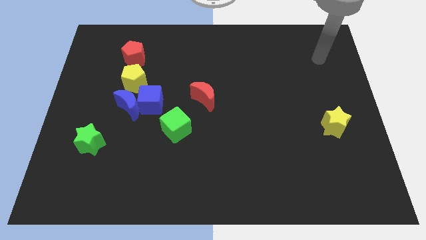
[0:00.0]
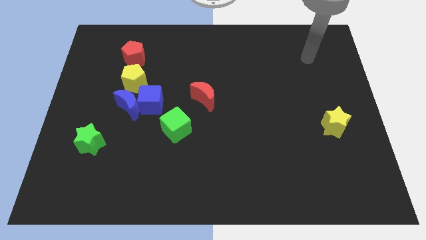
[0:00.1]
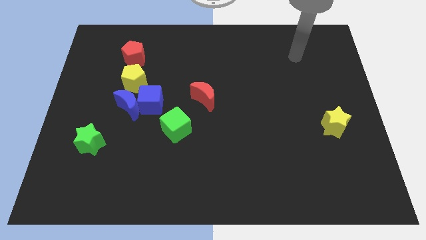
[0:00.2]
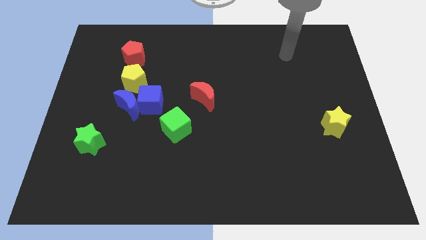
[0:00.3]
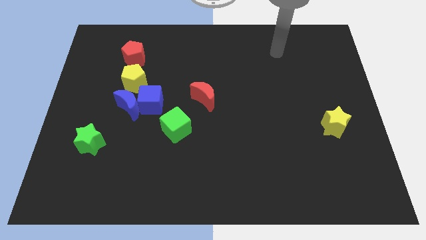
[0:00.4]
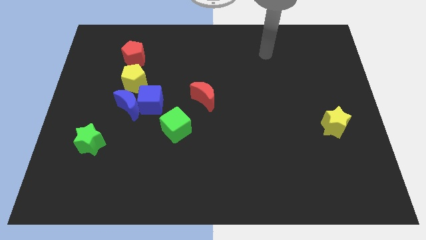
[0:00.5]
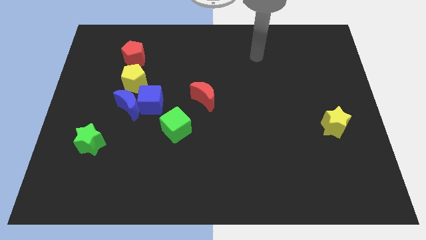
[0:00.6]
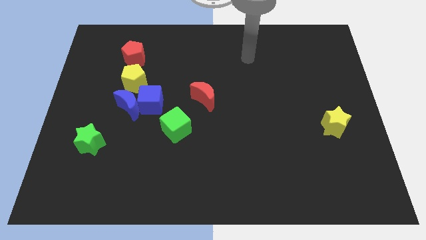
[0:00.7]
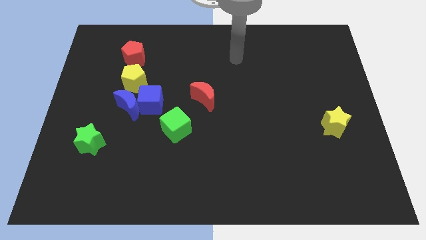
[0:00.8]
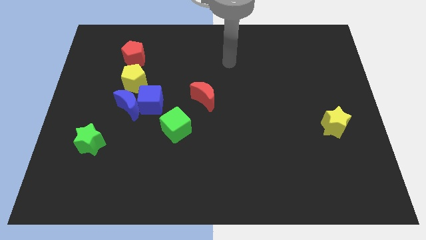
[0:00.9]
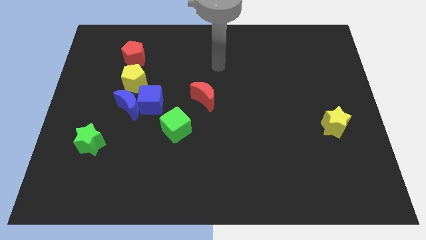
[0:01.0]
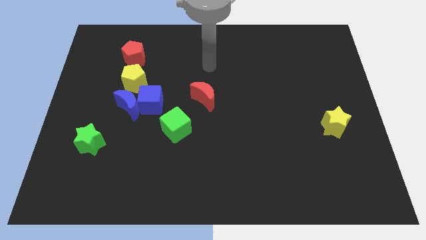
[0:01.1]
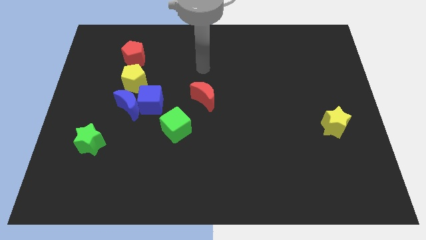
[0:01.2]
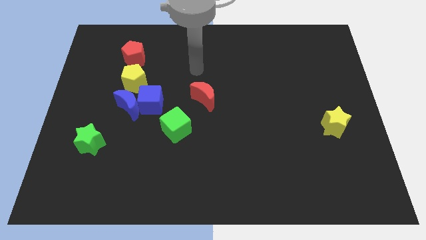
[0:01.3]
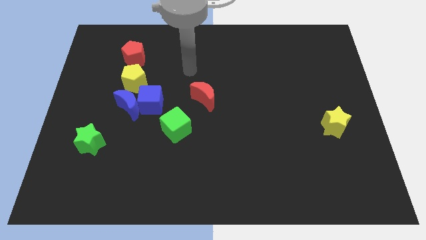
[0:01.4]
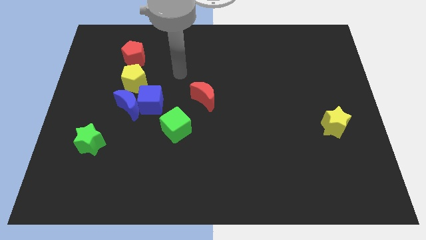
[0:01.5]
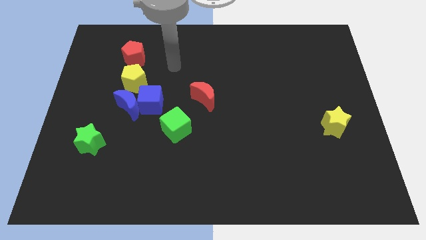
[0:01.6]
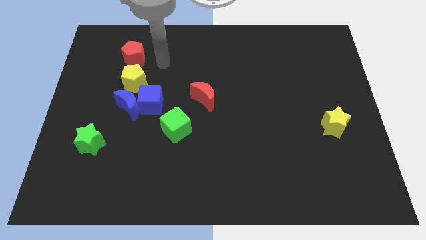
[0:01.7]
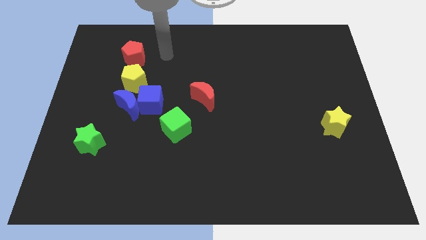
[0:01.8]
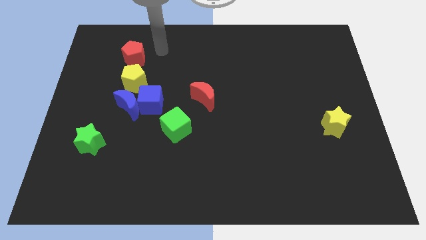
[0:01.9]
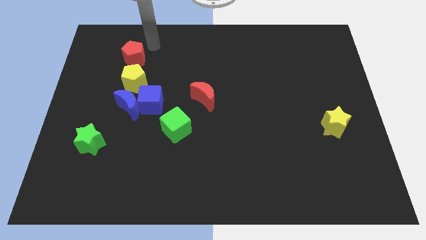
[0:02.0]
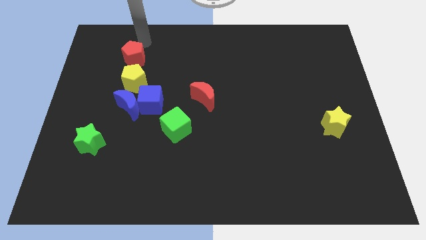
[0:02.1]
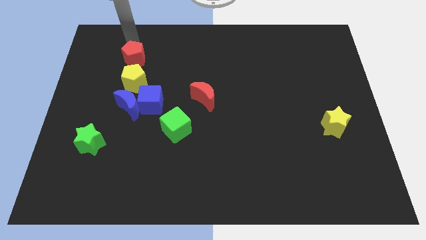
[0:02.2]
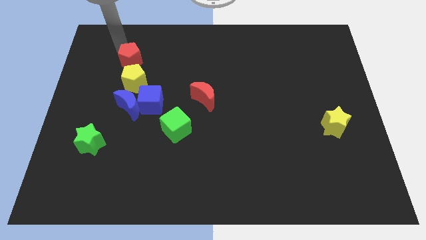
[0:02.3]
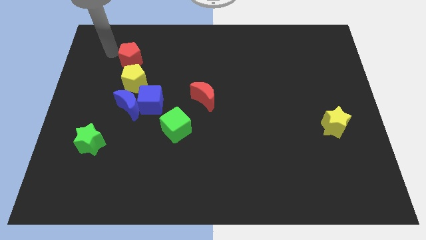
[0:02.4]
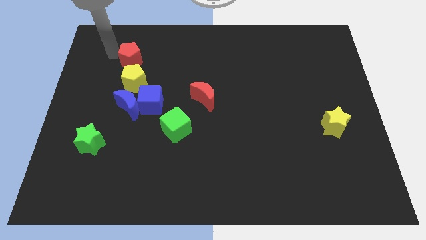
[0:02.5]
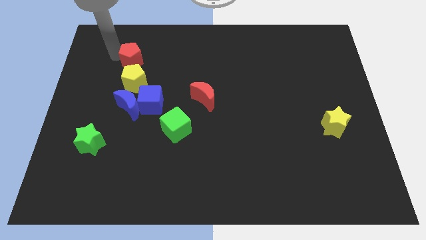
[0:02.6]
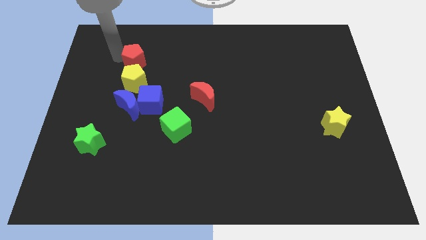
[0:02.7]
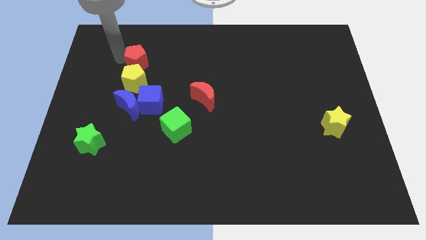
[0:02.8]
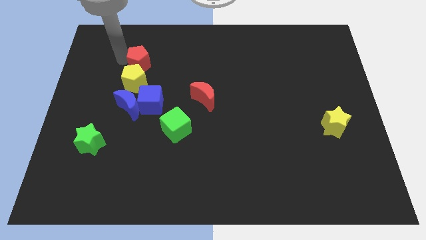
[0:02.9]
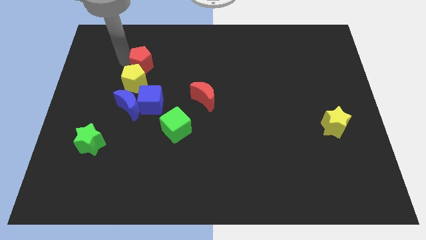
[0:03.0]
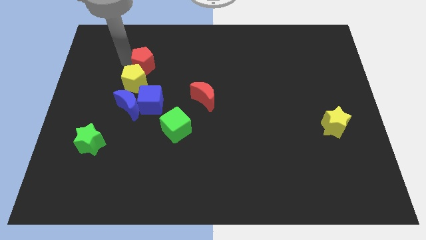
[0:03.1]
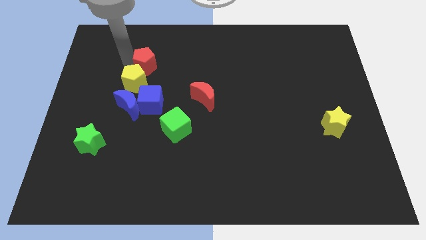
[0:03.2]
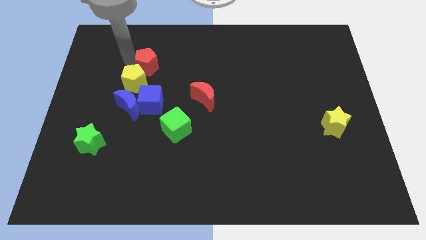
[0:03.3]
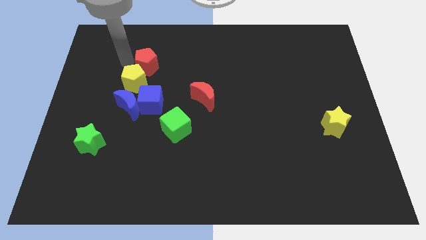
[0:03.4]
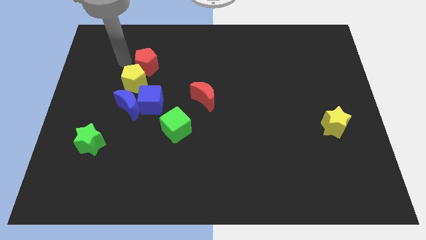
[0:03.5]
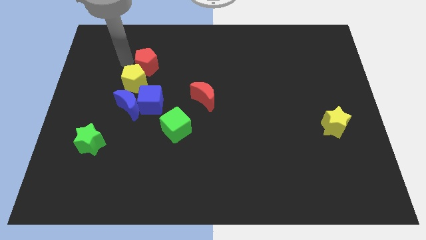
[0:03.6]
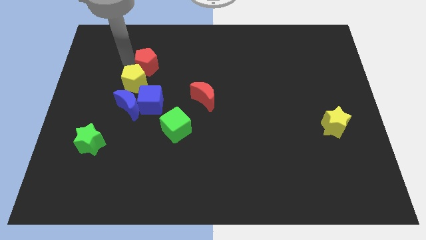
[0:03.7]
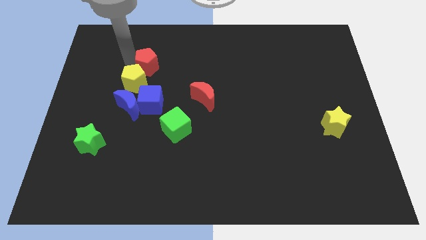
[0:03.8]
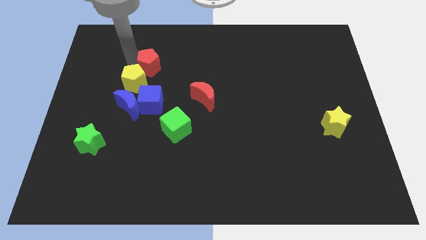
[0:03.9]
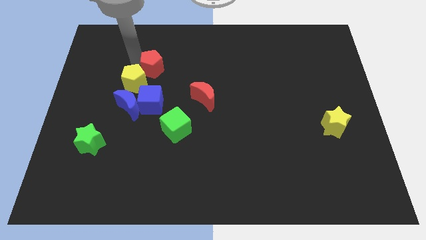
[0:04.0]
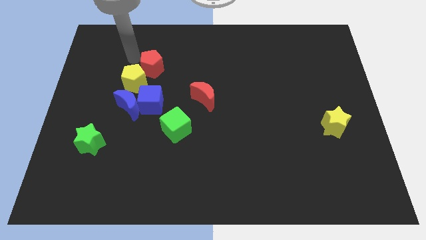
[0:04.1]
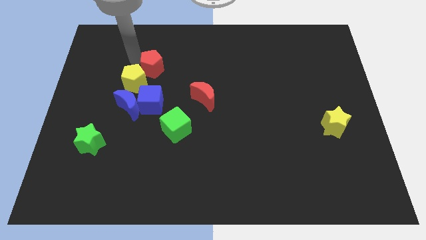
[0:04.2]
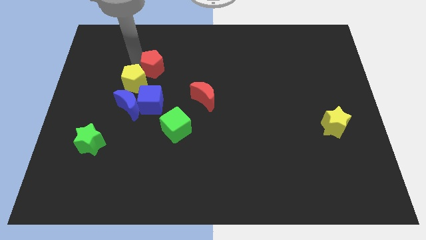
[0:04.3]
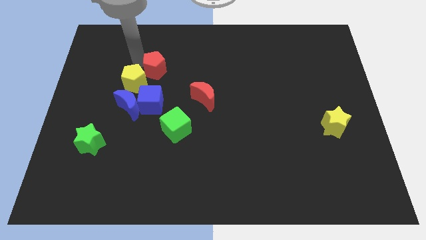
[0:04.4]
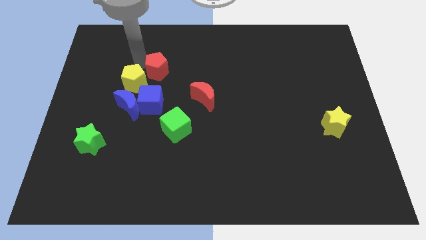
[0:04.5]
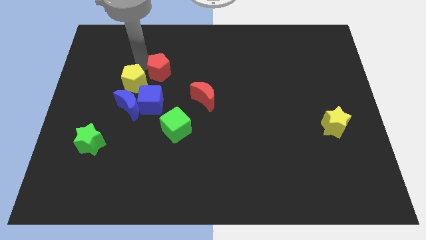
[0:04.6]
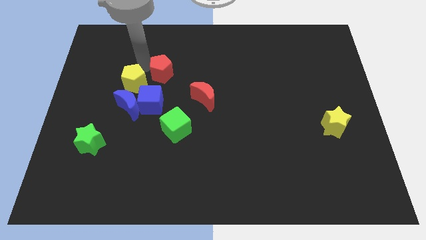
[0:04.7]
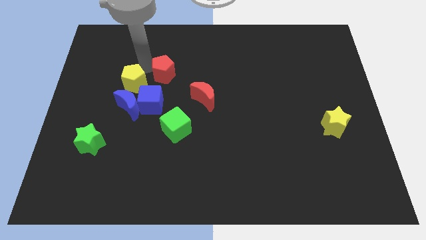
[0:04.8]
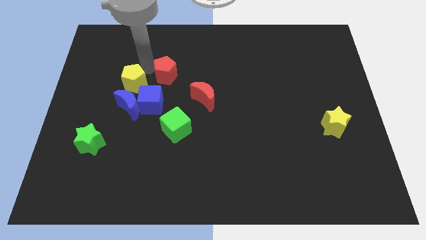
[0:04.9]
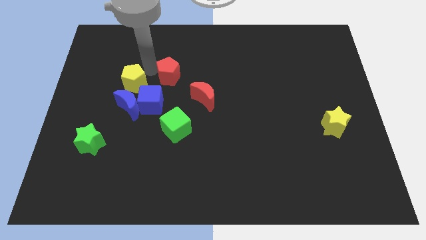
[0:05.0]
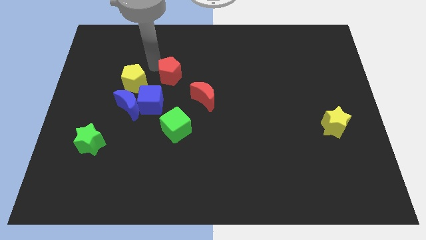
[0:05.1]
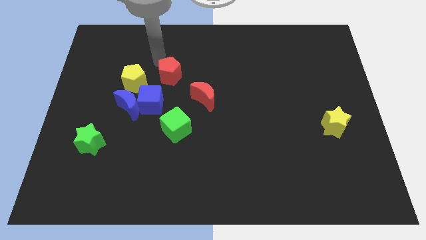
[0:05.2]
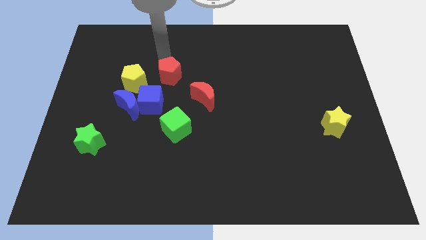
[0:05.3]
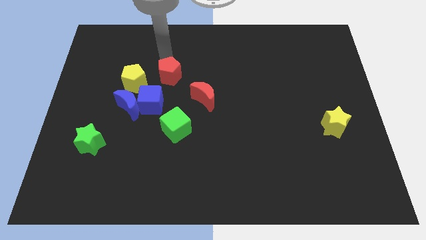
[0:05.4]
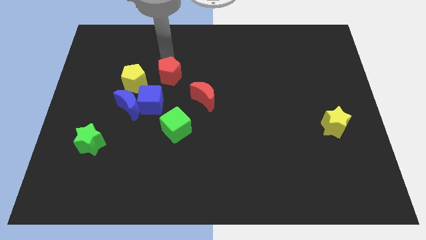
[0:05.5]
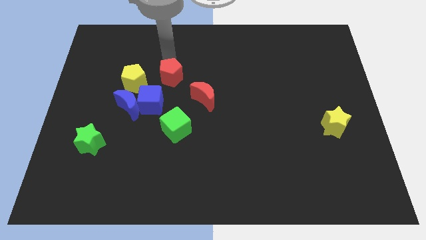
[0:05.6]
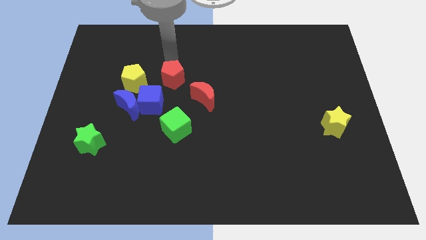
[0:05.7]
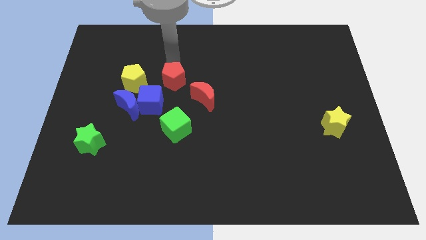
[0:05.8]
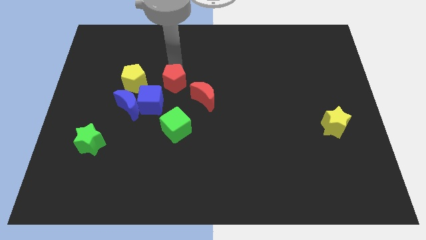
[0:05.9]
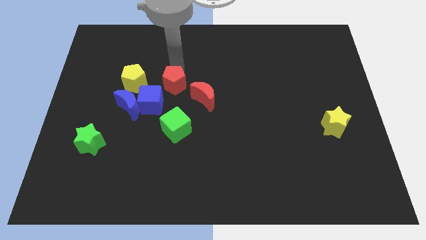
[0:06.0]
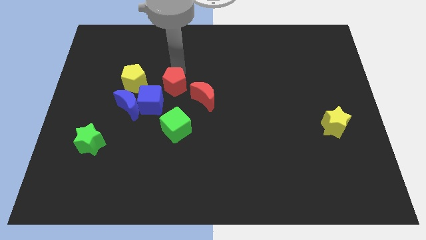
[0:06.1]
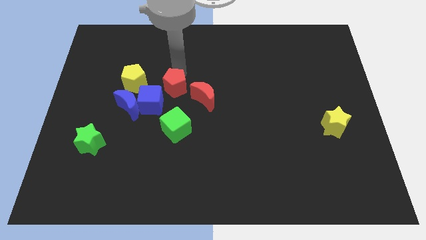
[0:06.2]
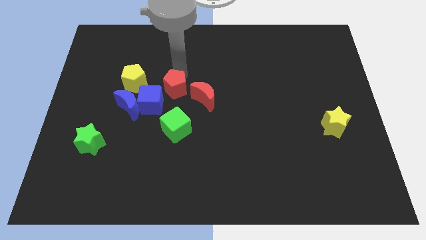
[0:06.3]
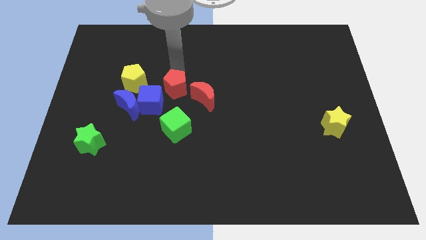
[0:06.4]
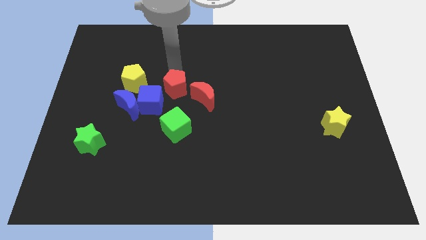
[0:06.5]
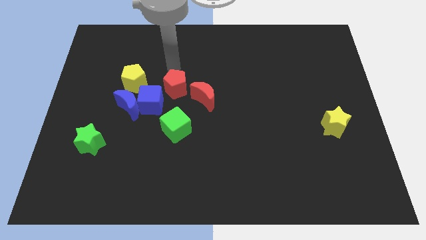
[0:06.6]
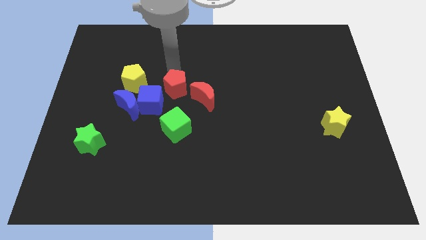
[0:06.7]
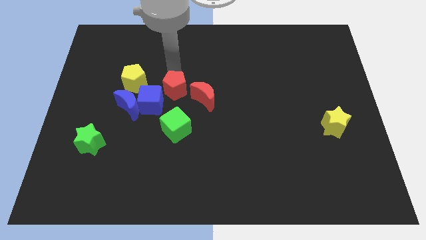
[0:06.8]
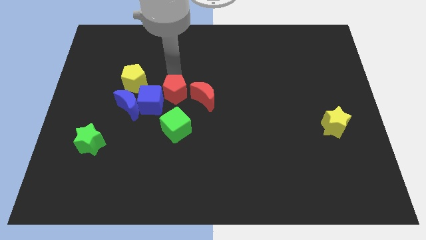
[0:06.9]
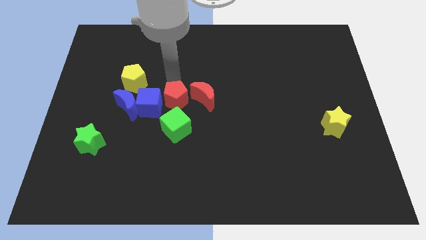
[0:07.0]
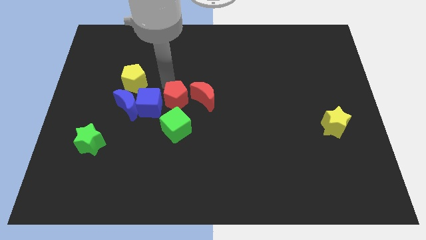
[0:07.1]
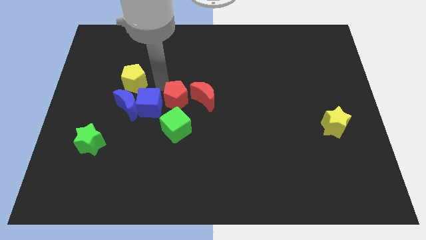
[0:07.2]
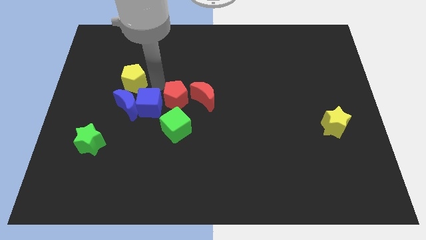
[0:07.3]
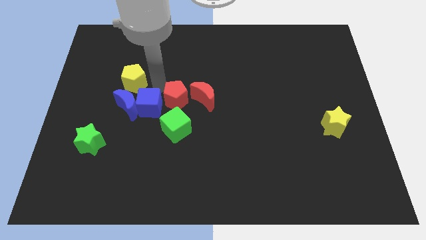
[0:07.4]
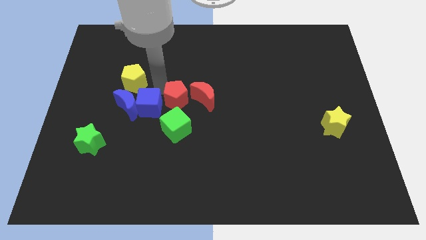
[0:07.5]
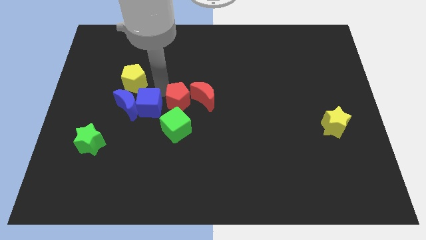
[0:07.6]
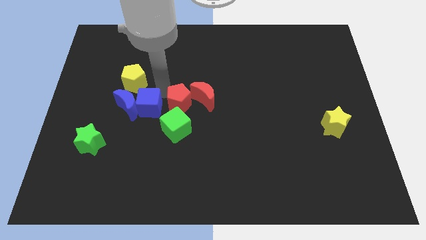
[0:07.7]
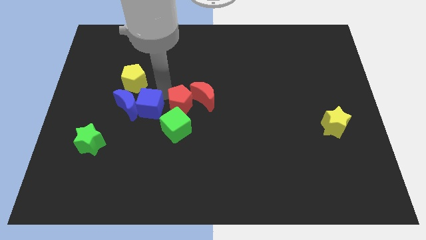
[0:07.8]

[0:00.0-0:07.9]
slide the red pentagon downwards and then to the right
